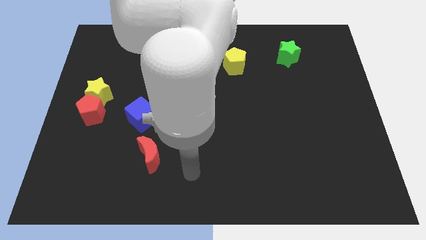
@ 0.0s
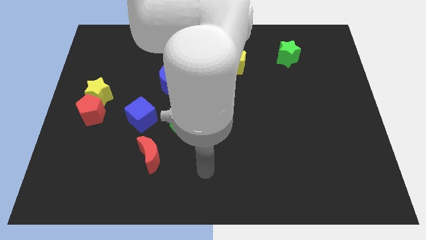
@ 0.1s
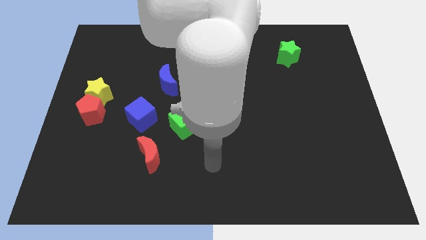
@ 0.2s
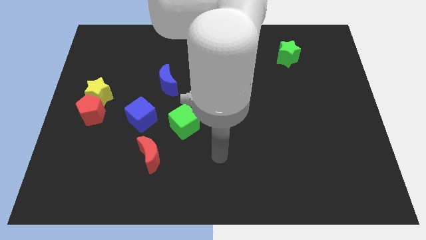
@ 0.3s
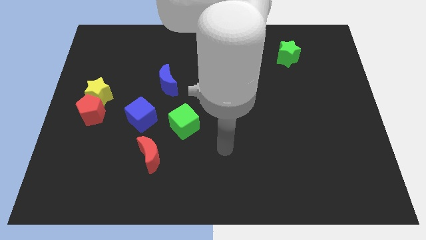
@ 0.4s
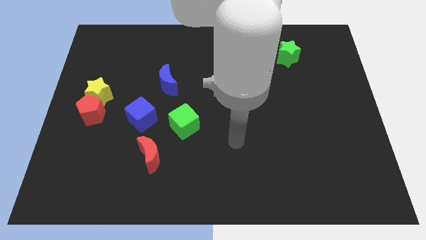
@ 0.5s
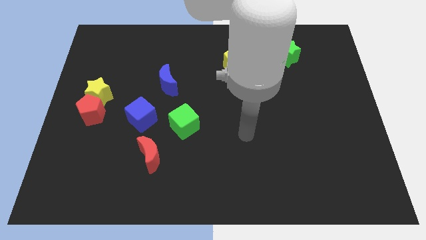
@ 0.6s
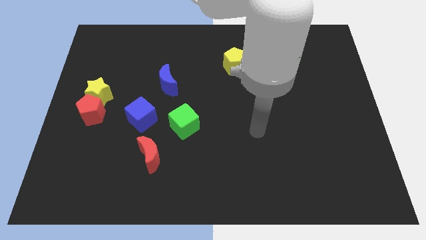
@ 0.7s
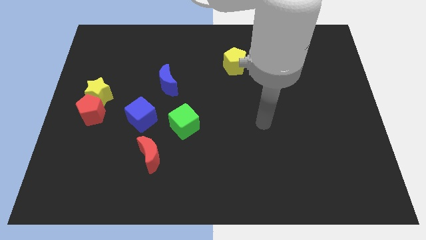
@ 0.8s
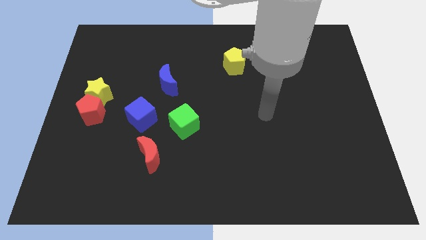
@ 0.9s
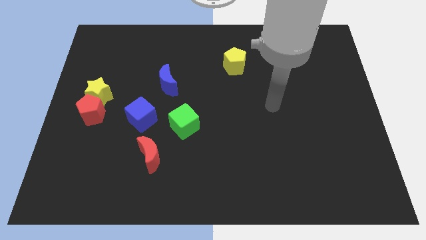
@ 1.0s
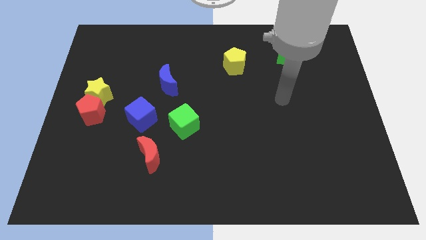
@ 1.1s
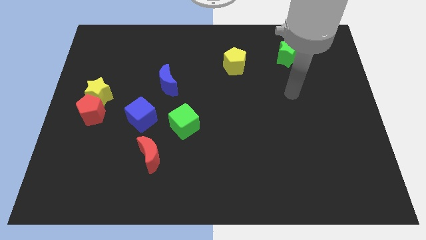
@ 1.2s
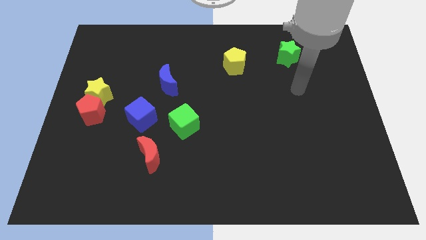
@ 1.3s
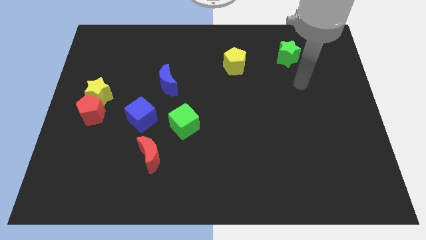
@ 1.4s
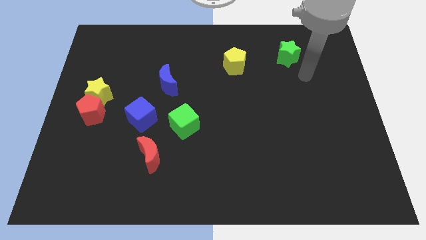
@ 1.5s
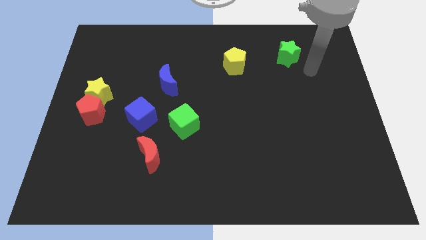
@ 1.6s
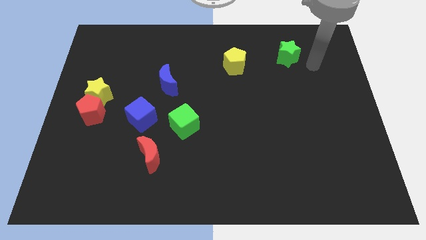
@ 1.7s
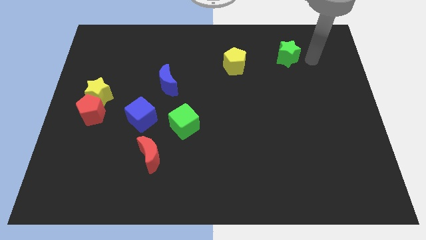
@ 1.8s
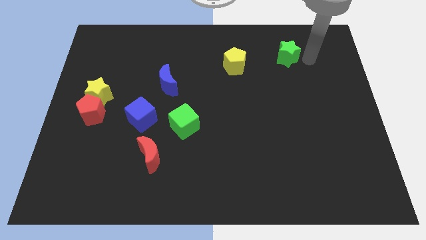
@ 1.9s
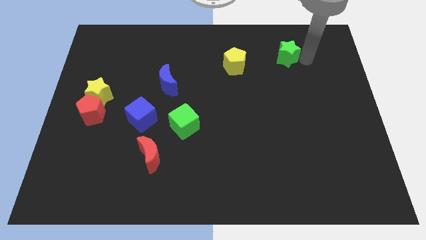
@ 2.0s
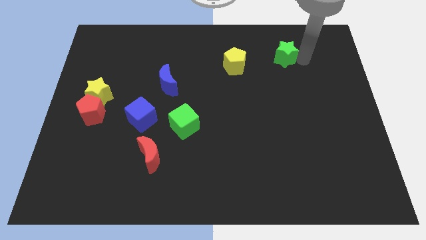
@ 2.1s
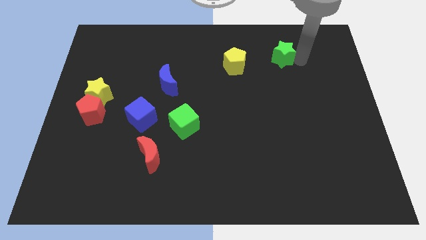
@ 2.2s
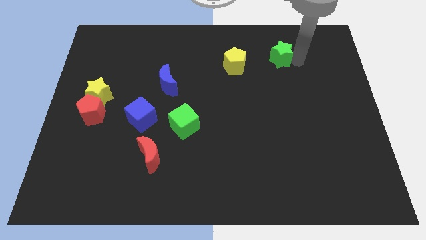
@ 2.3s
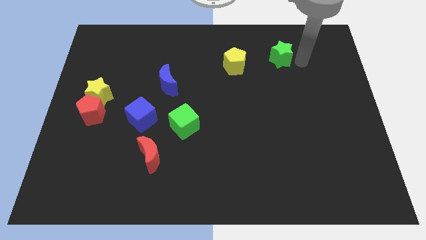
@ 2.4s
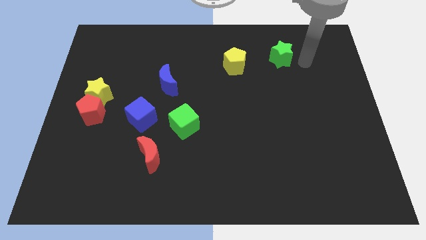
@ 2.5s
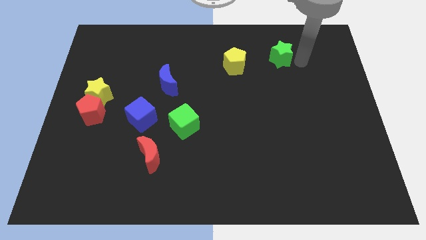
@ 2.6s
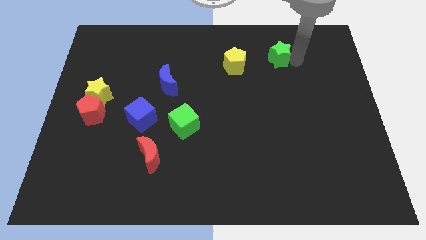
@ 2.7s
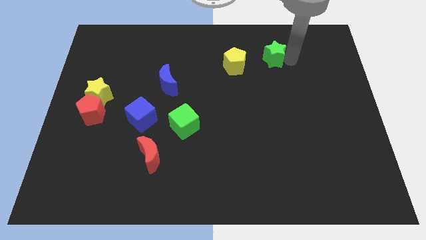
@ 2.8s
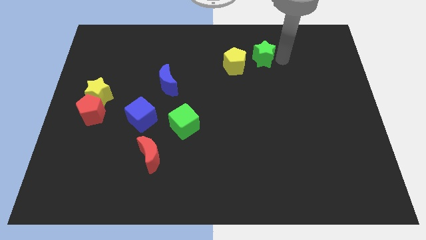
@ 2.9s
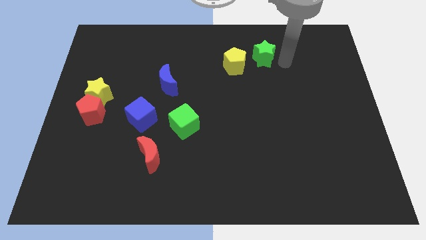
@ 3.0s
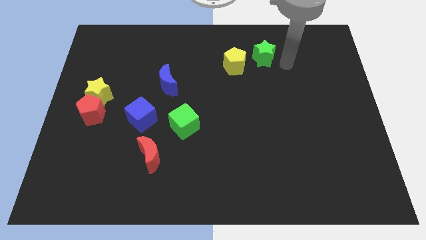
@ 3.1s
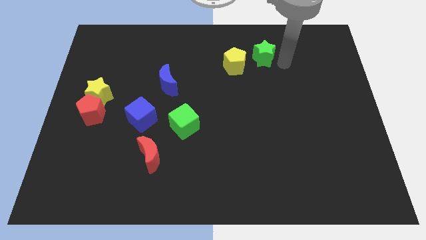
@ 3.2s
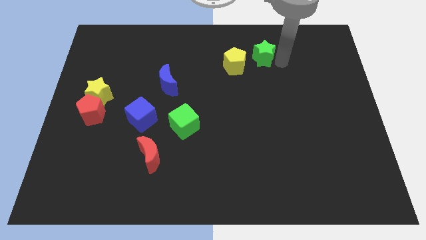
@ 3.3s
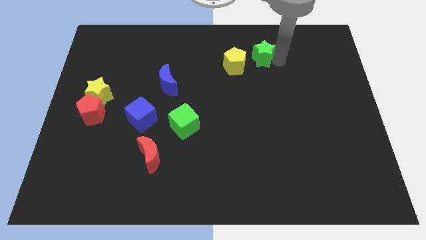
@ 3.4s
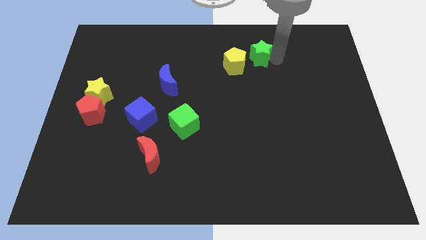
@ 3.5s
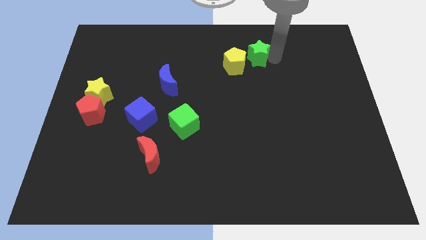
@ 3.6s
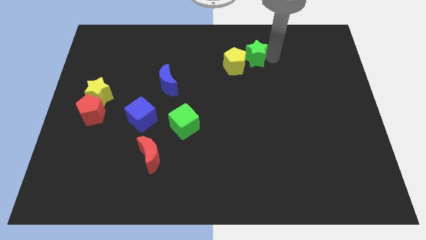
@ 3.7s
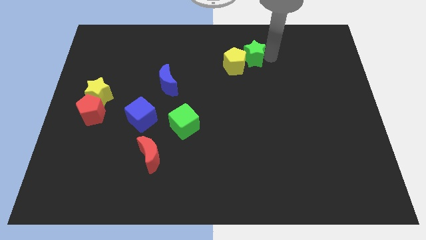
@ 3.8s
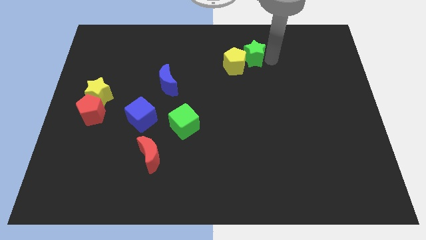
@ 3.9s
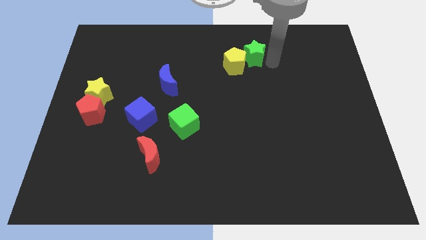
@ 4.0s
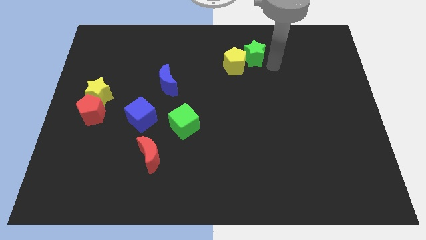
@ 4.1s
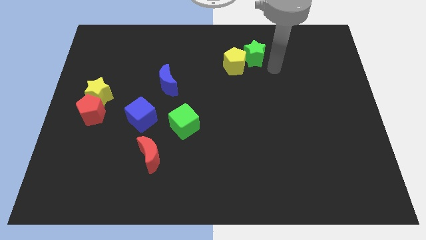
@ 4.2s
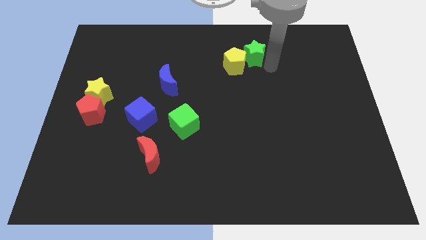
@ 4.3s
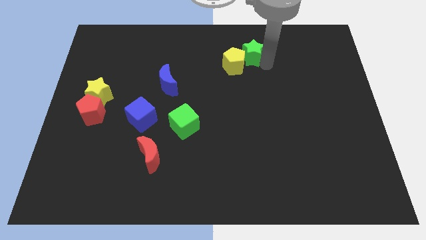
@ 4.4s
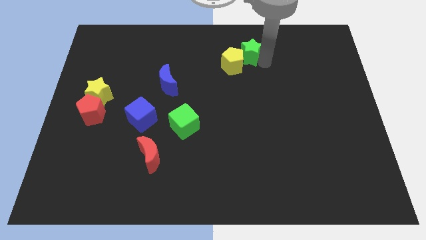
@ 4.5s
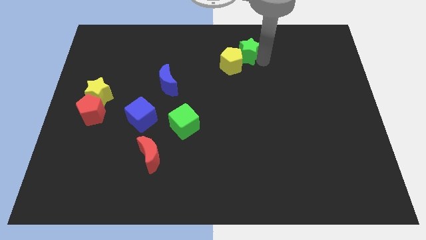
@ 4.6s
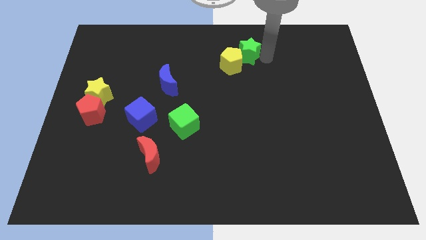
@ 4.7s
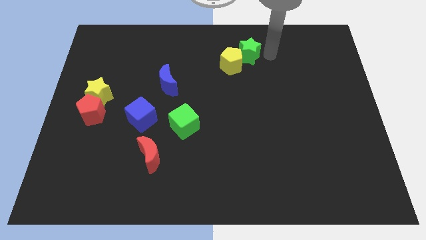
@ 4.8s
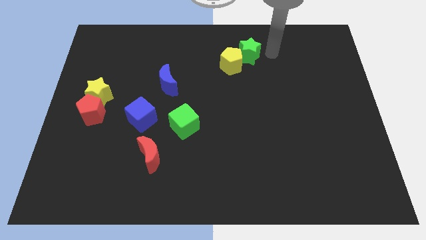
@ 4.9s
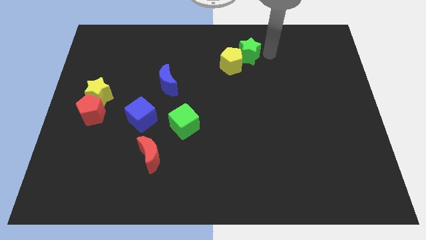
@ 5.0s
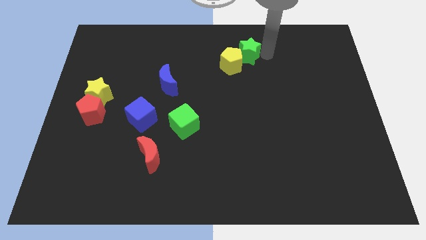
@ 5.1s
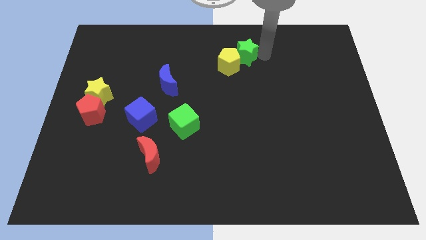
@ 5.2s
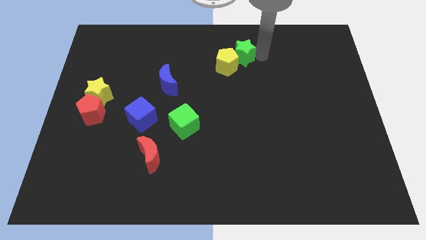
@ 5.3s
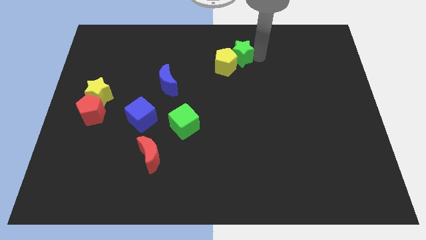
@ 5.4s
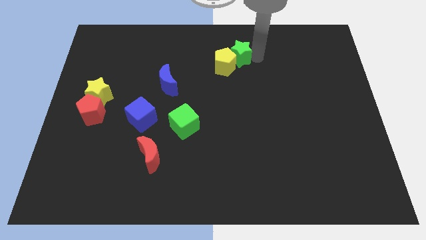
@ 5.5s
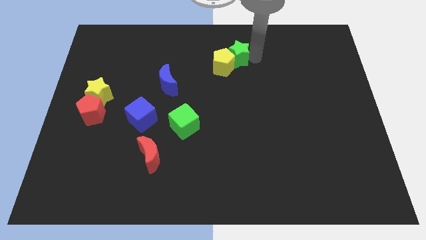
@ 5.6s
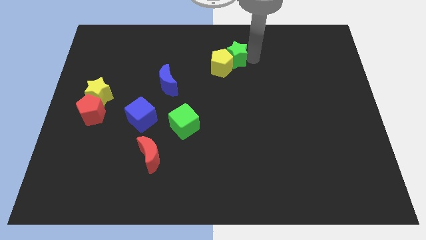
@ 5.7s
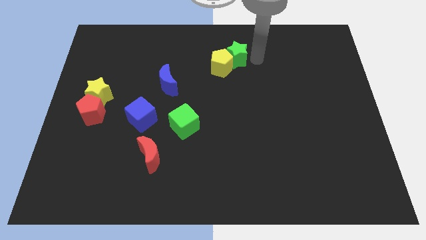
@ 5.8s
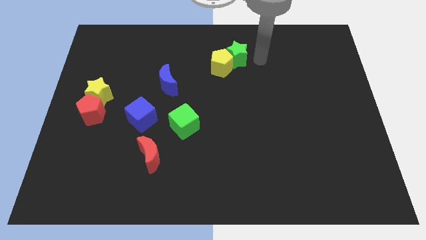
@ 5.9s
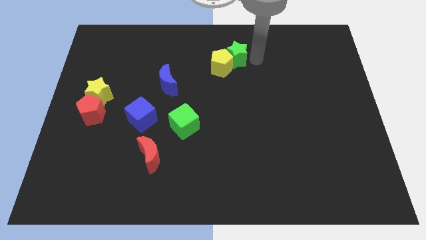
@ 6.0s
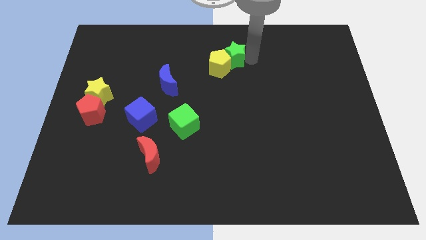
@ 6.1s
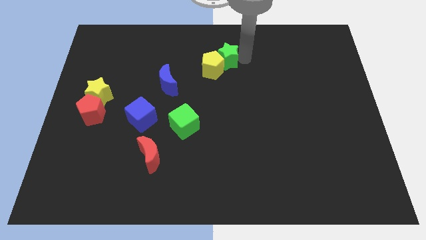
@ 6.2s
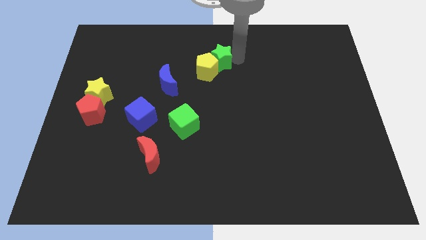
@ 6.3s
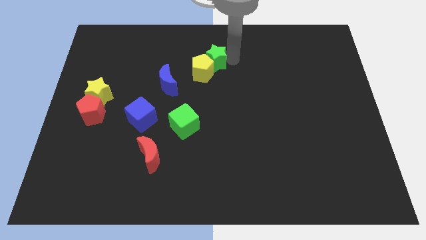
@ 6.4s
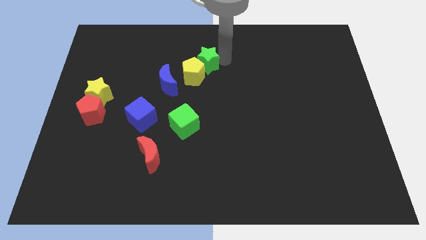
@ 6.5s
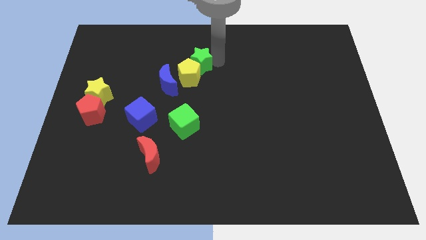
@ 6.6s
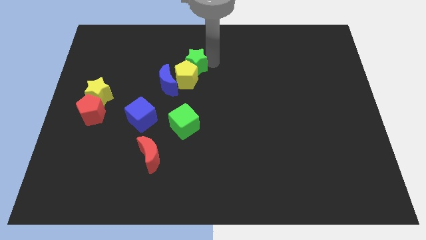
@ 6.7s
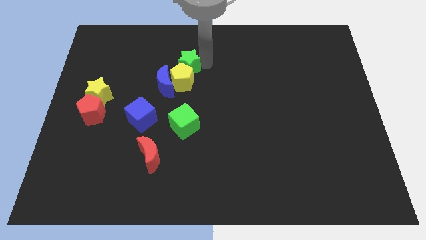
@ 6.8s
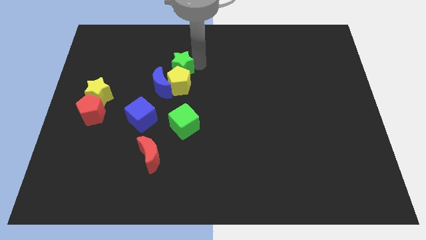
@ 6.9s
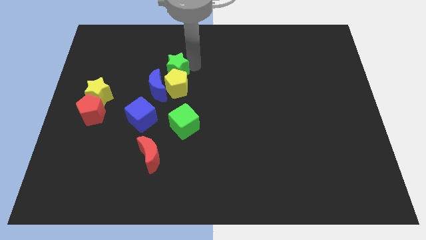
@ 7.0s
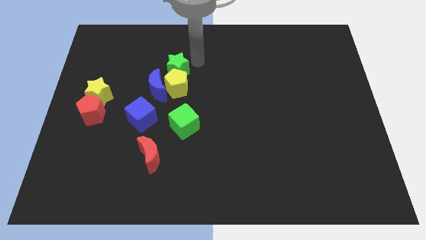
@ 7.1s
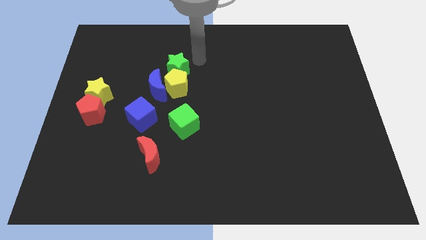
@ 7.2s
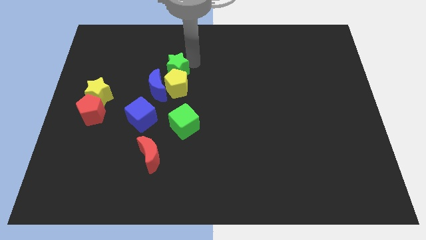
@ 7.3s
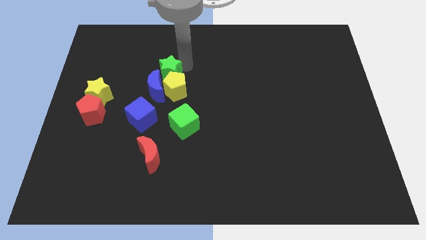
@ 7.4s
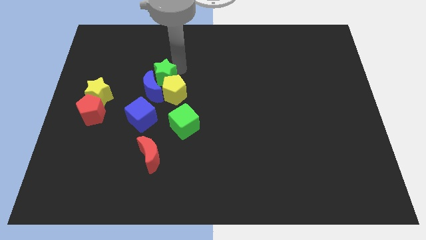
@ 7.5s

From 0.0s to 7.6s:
move the green star above the blue cube
